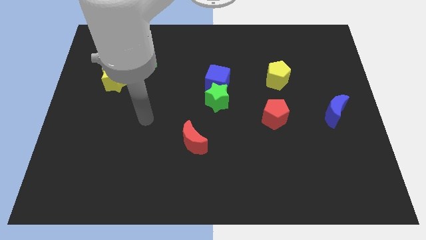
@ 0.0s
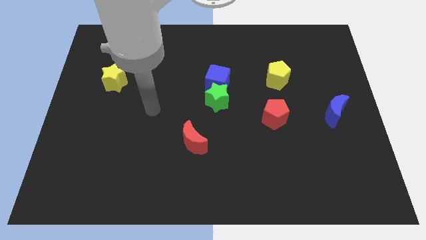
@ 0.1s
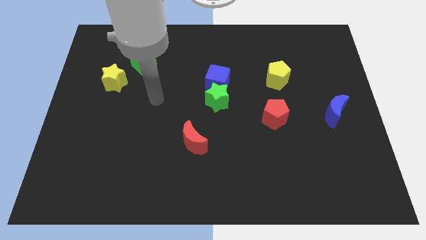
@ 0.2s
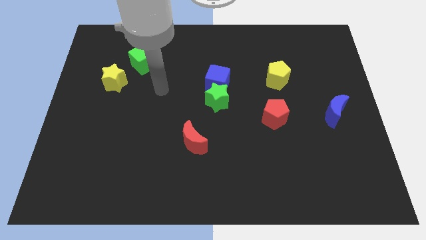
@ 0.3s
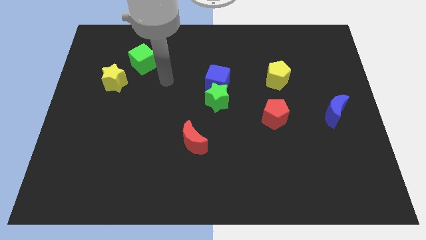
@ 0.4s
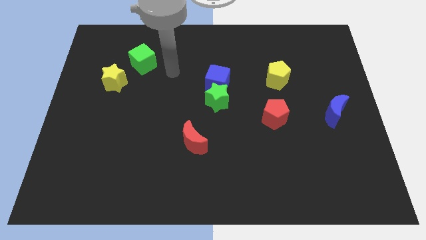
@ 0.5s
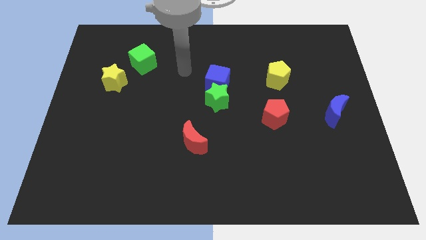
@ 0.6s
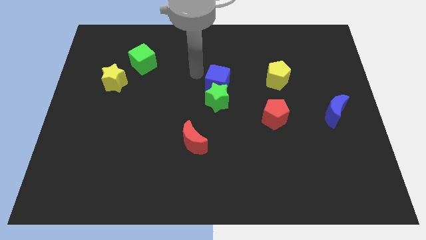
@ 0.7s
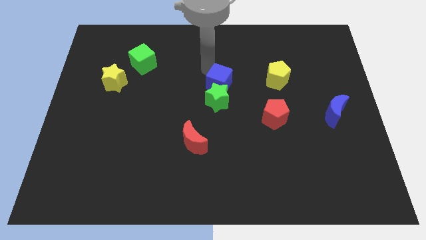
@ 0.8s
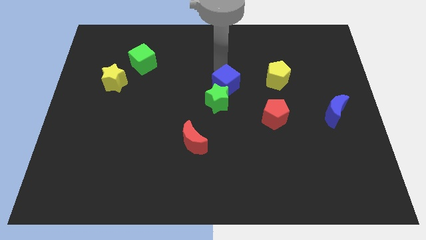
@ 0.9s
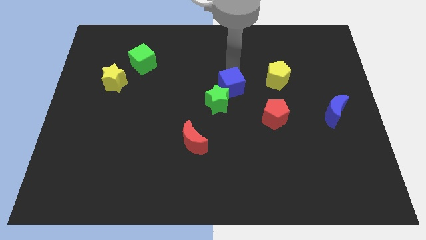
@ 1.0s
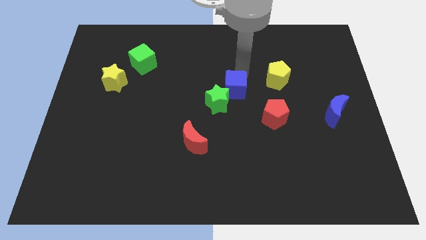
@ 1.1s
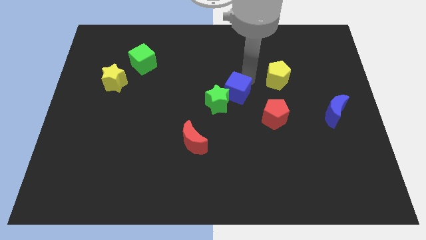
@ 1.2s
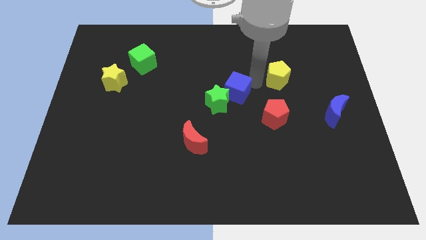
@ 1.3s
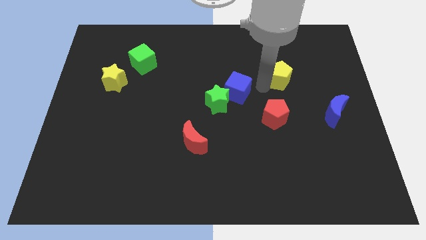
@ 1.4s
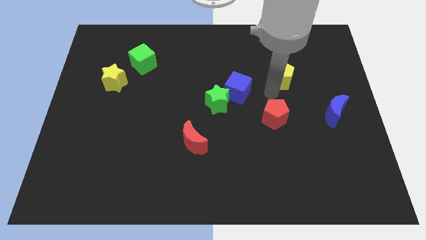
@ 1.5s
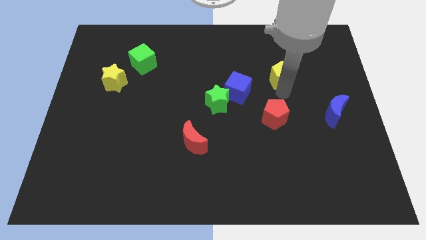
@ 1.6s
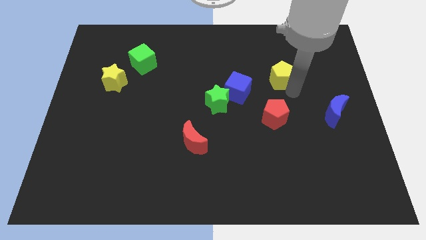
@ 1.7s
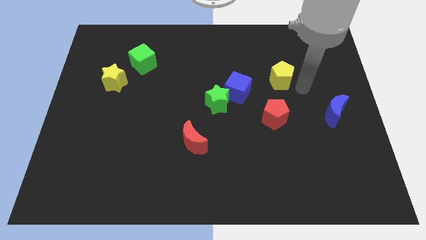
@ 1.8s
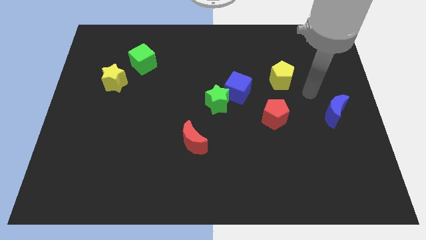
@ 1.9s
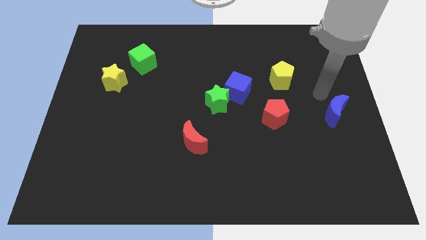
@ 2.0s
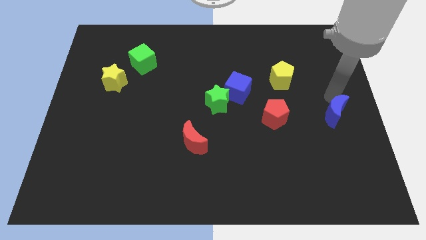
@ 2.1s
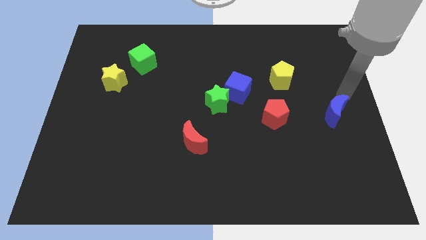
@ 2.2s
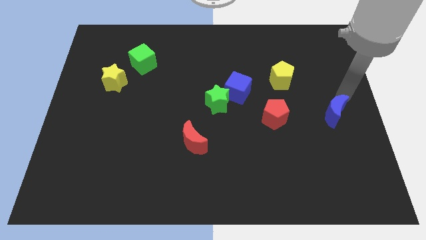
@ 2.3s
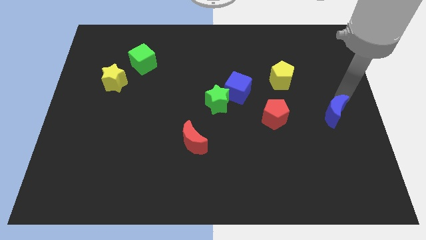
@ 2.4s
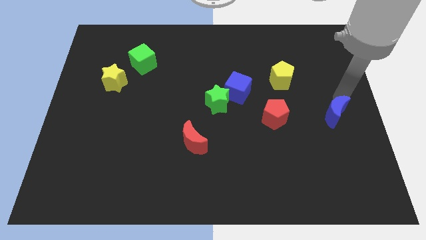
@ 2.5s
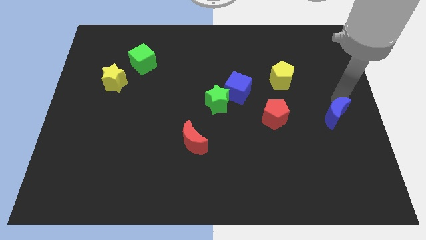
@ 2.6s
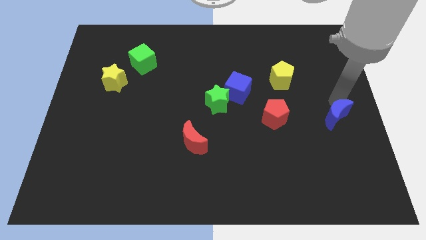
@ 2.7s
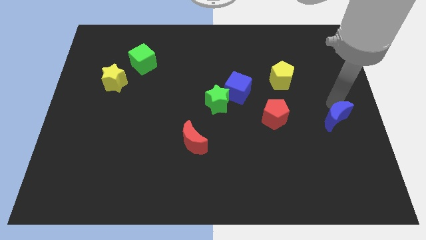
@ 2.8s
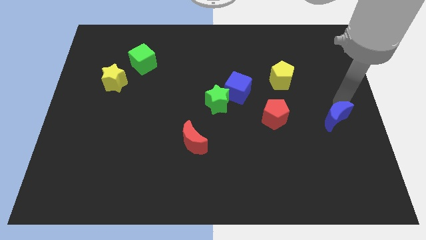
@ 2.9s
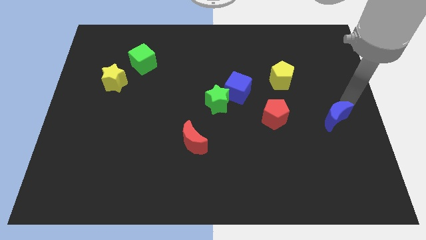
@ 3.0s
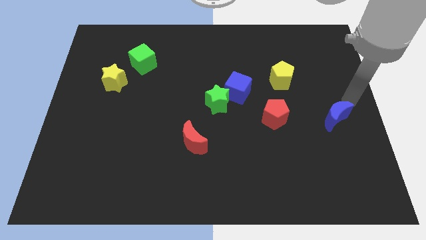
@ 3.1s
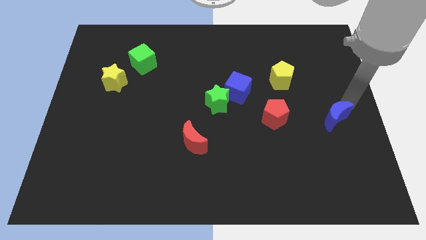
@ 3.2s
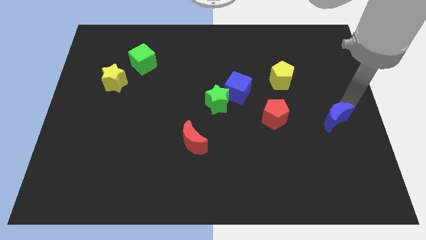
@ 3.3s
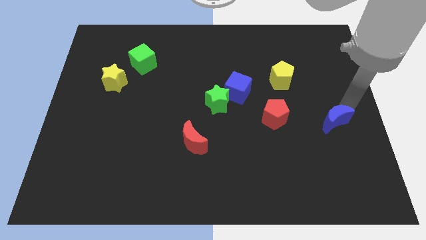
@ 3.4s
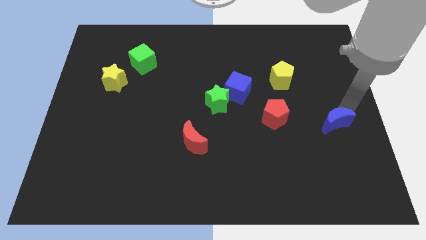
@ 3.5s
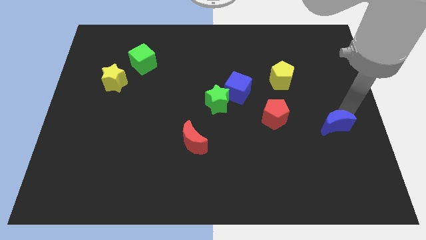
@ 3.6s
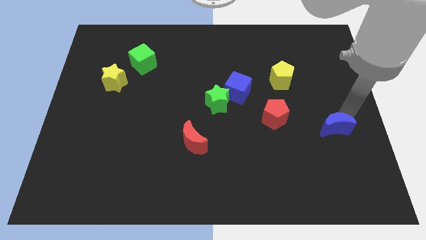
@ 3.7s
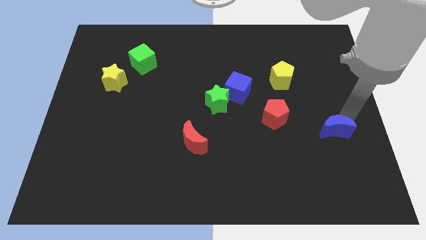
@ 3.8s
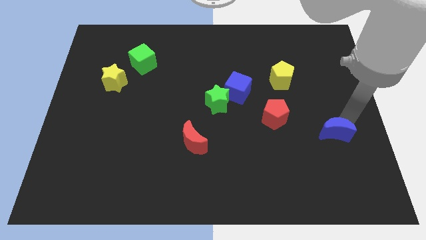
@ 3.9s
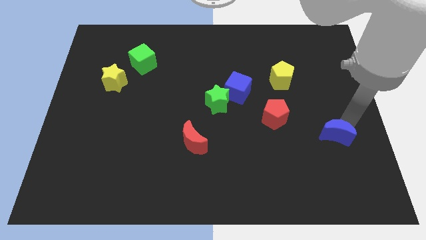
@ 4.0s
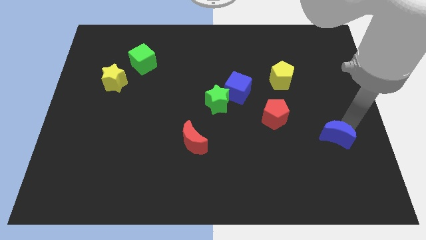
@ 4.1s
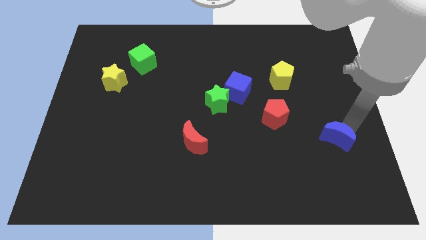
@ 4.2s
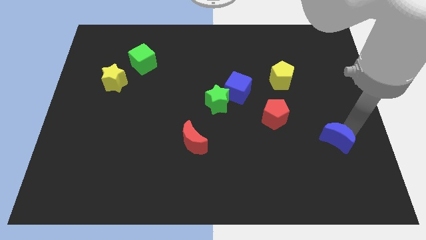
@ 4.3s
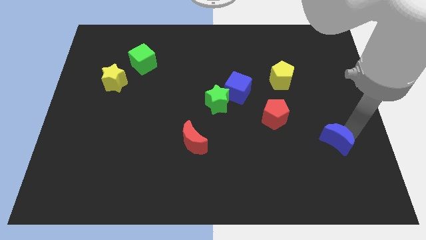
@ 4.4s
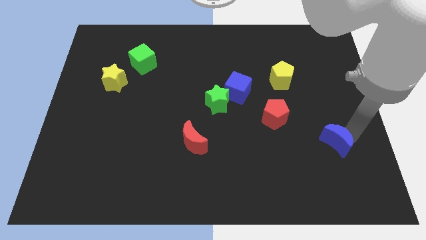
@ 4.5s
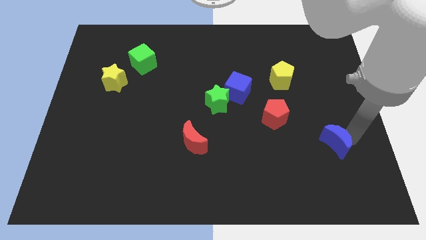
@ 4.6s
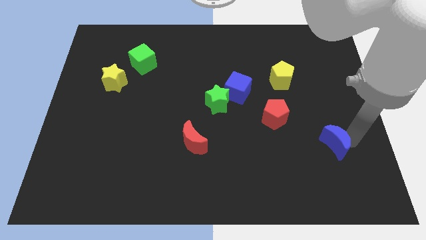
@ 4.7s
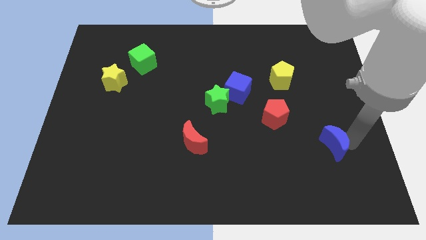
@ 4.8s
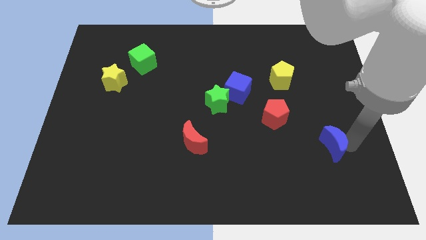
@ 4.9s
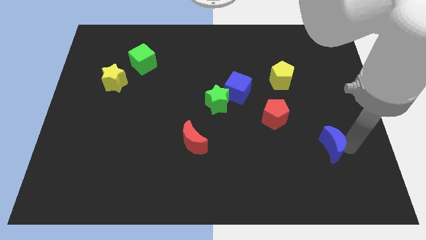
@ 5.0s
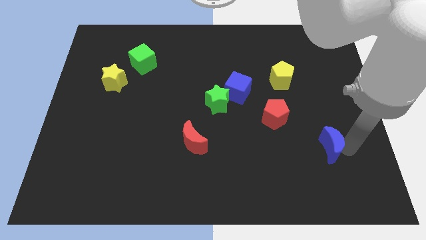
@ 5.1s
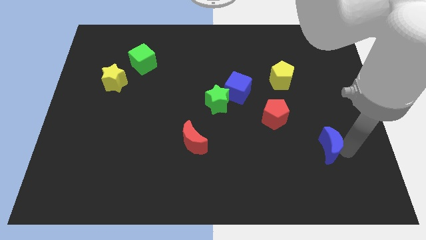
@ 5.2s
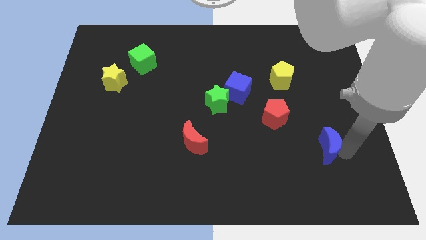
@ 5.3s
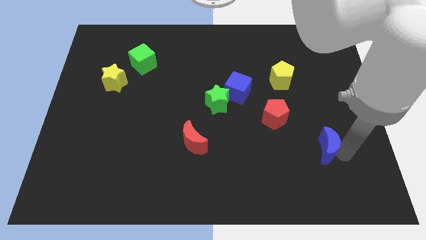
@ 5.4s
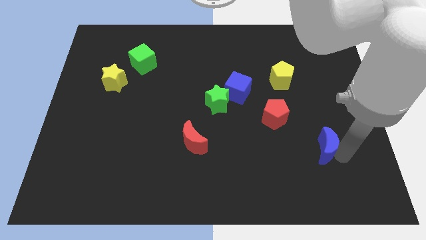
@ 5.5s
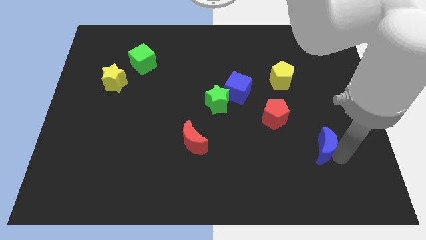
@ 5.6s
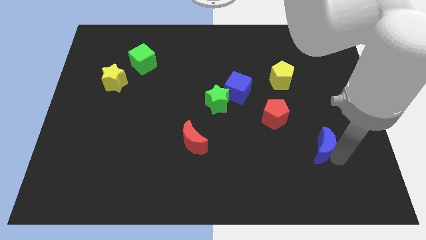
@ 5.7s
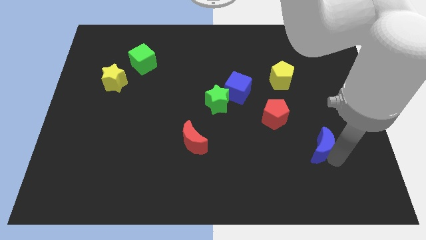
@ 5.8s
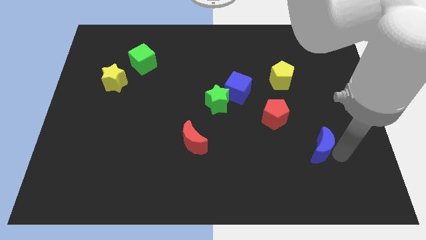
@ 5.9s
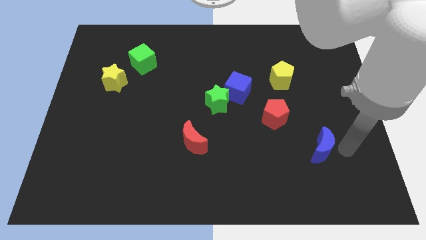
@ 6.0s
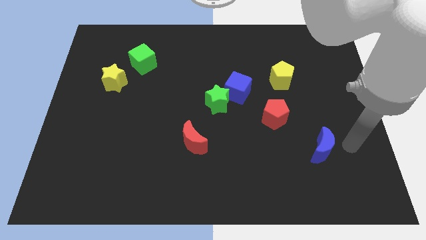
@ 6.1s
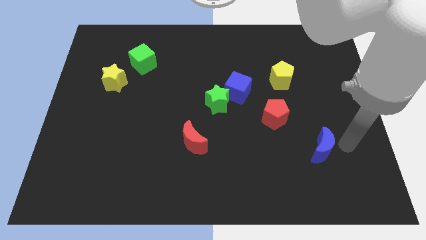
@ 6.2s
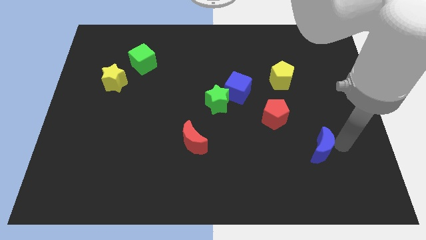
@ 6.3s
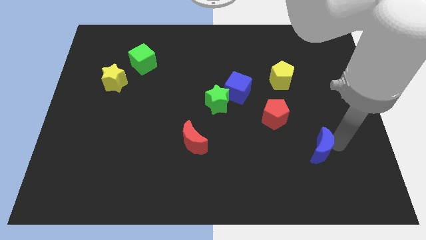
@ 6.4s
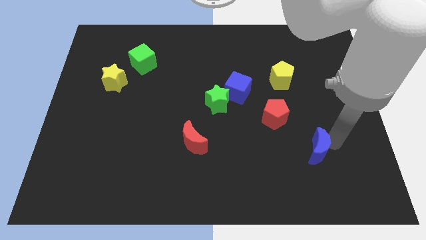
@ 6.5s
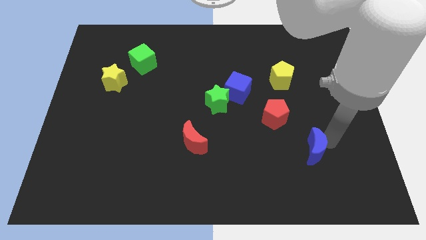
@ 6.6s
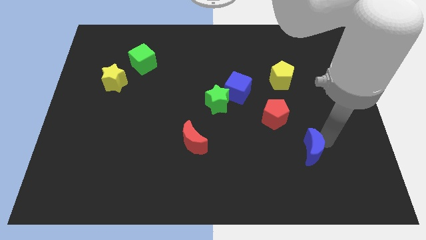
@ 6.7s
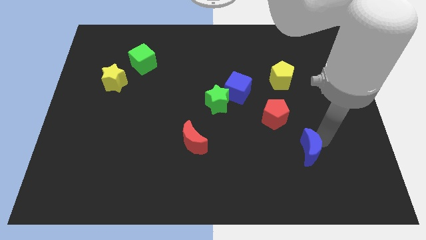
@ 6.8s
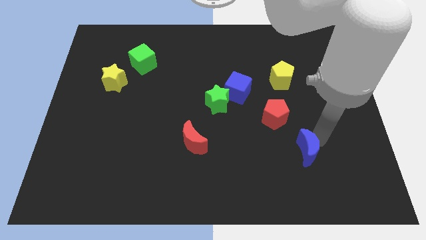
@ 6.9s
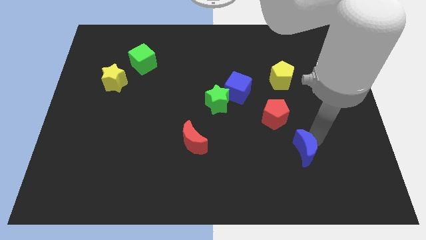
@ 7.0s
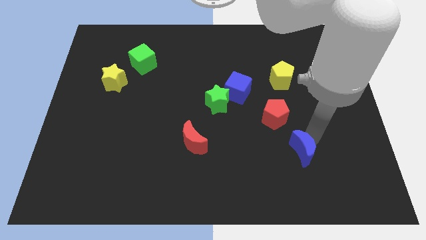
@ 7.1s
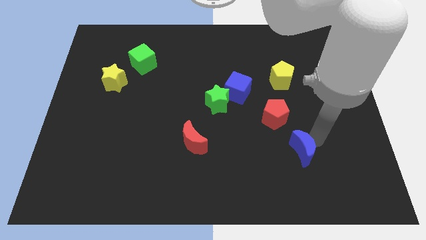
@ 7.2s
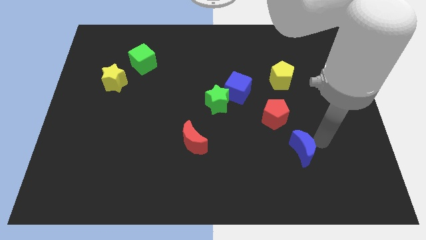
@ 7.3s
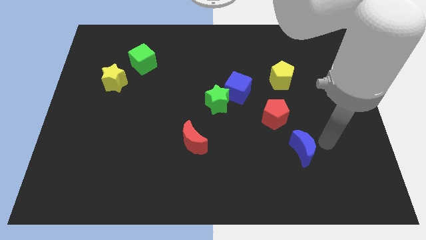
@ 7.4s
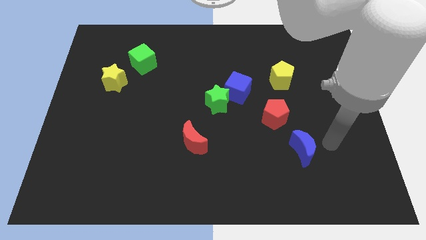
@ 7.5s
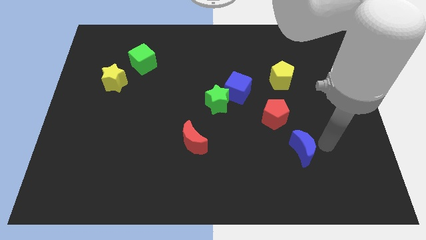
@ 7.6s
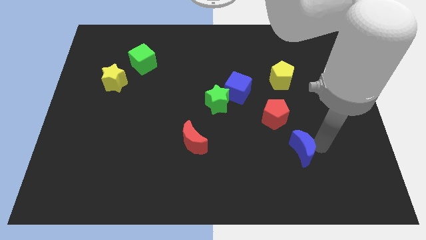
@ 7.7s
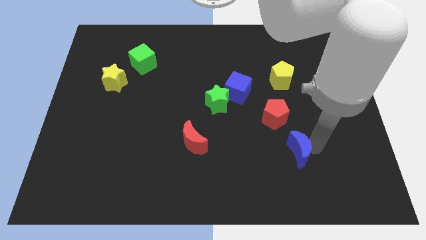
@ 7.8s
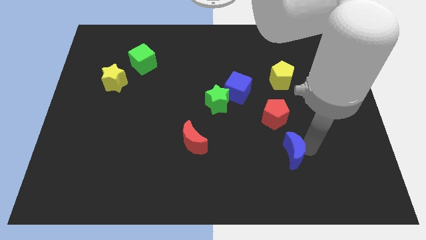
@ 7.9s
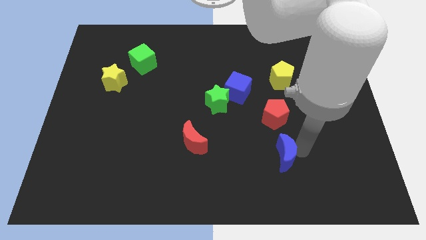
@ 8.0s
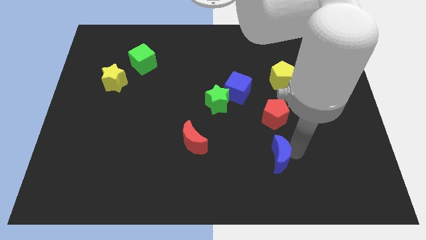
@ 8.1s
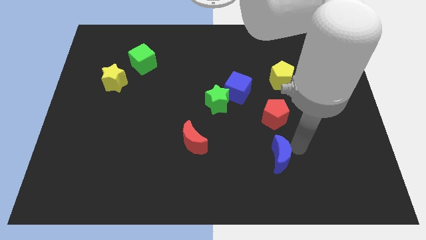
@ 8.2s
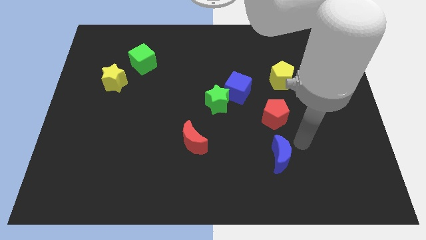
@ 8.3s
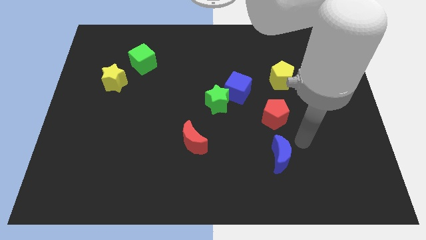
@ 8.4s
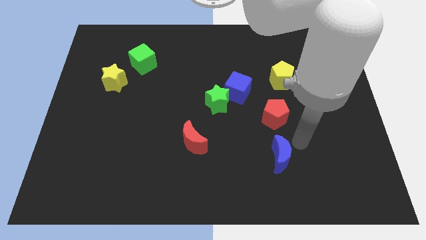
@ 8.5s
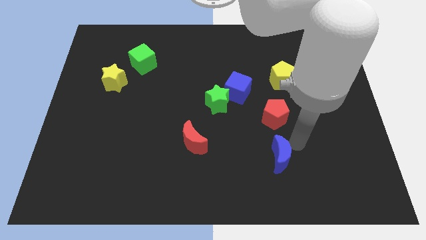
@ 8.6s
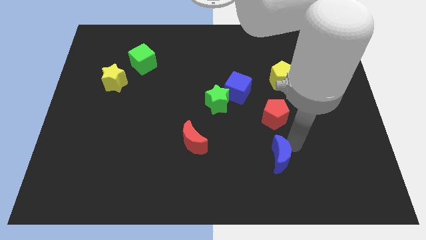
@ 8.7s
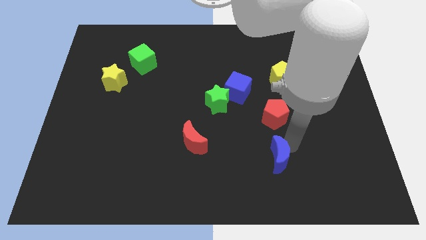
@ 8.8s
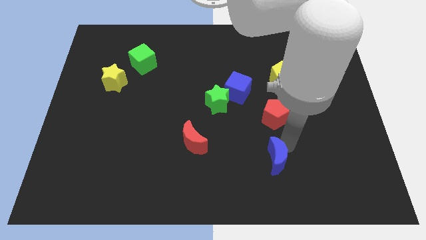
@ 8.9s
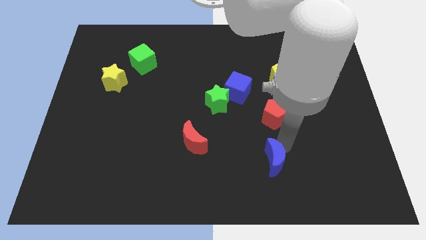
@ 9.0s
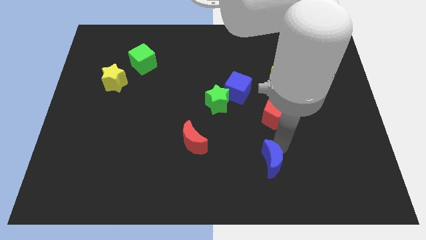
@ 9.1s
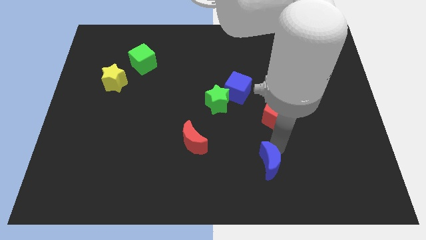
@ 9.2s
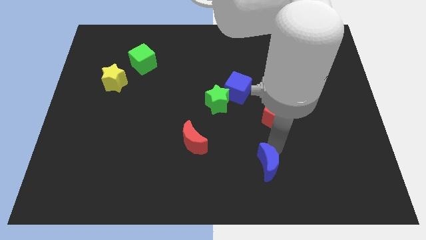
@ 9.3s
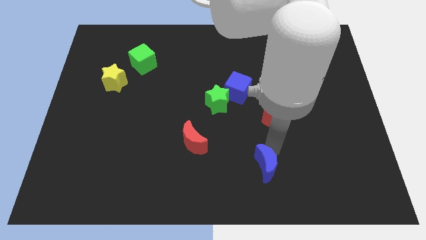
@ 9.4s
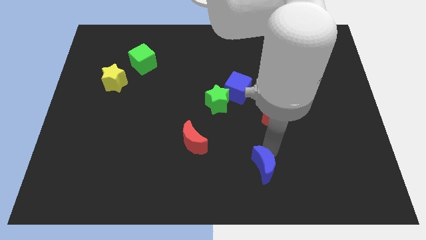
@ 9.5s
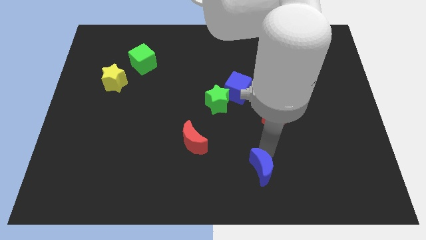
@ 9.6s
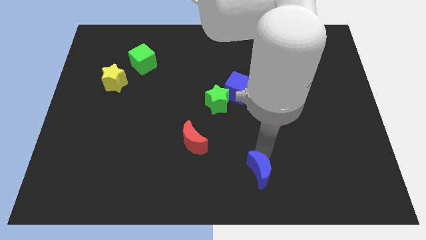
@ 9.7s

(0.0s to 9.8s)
slide the blue moon to the bottom side
